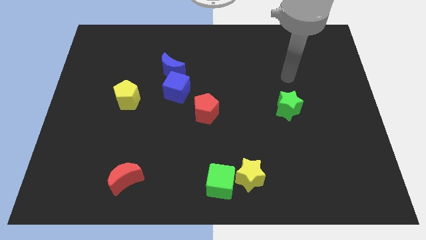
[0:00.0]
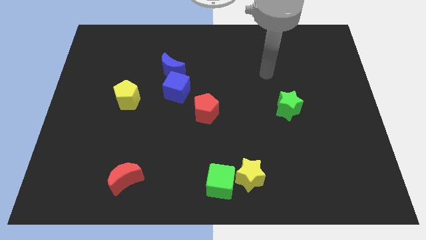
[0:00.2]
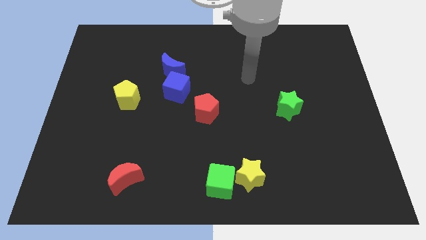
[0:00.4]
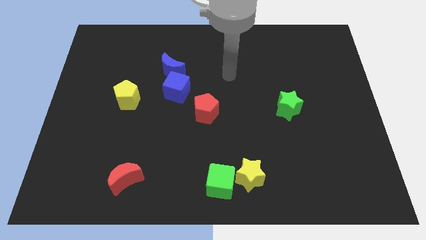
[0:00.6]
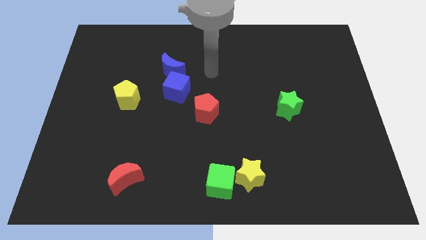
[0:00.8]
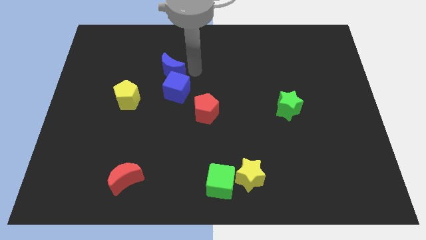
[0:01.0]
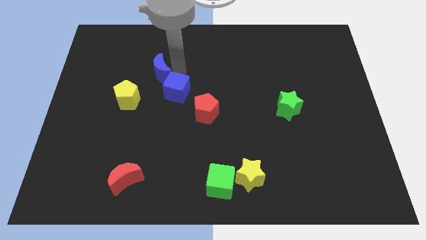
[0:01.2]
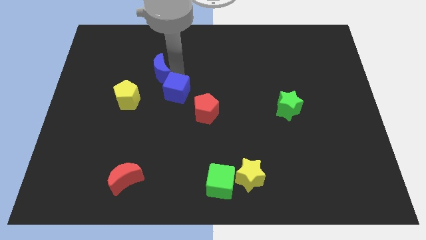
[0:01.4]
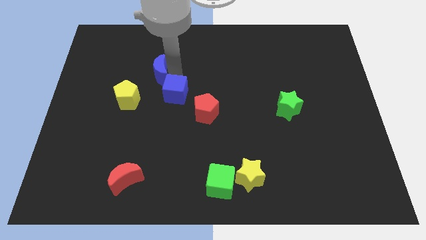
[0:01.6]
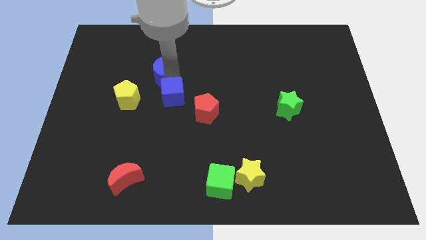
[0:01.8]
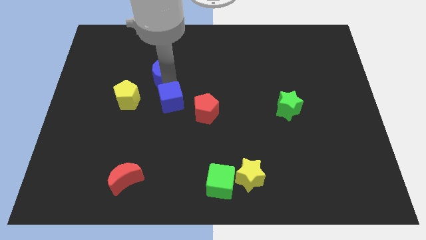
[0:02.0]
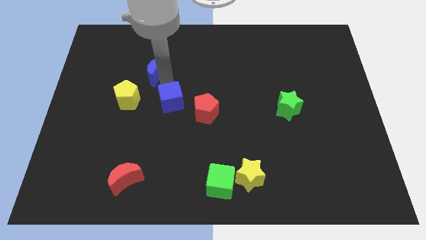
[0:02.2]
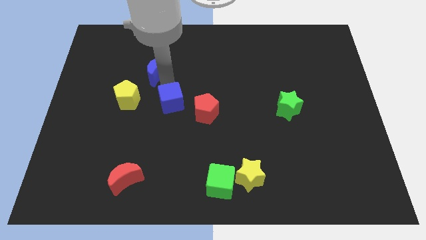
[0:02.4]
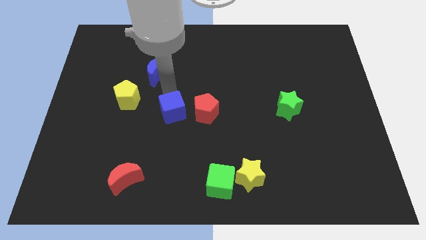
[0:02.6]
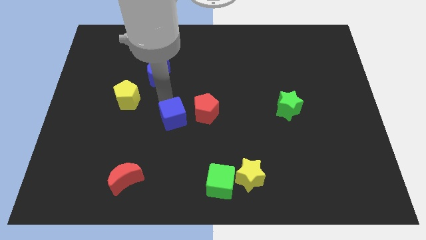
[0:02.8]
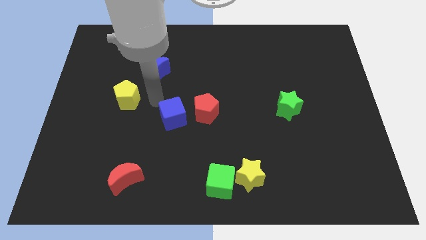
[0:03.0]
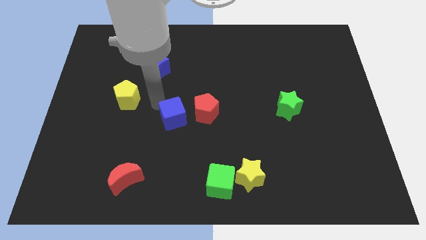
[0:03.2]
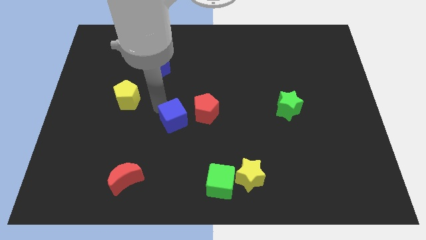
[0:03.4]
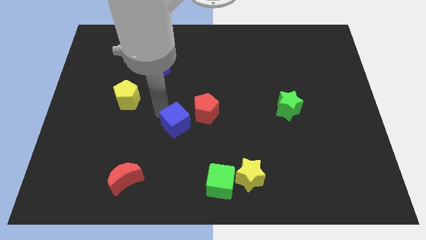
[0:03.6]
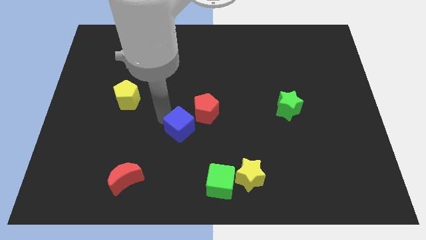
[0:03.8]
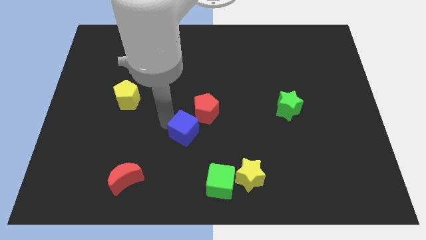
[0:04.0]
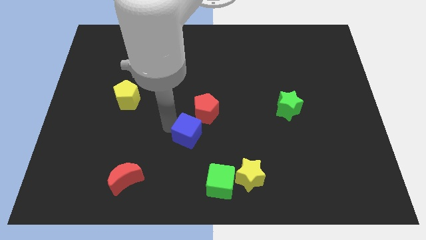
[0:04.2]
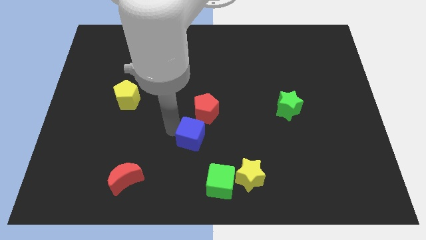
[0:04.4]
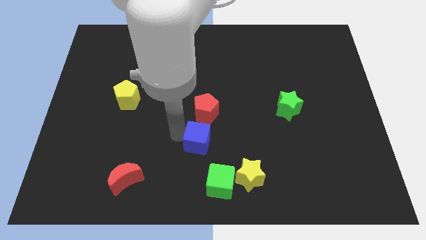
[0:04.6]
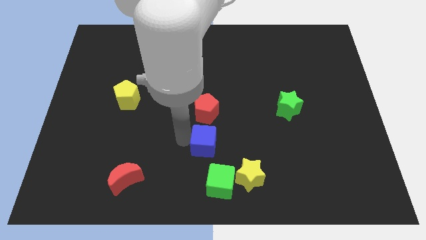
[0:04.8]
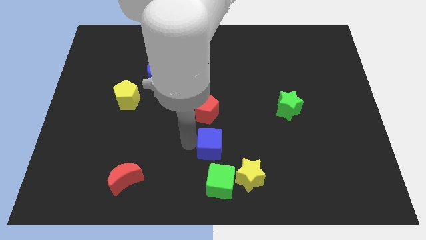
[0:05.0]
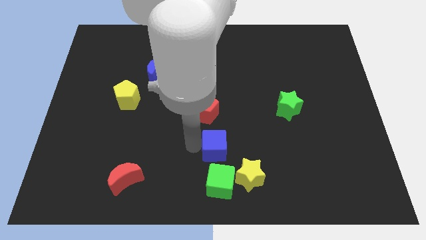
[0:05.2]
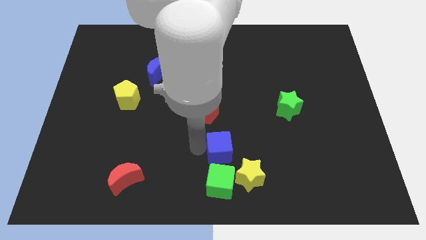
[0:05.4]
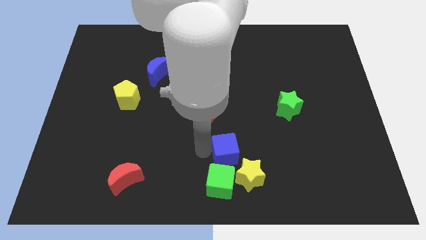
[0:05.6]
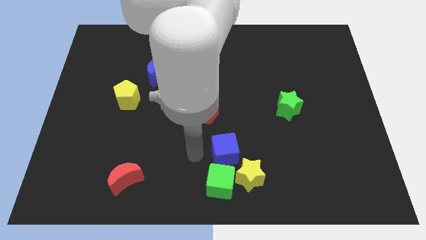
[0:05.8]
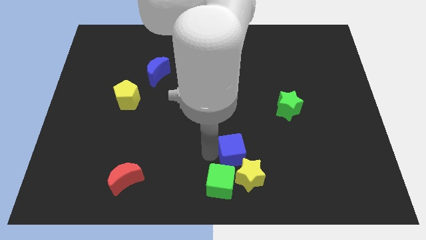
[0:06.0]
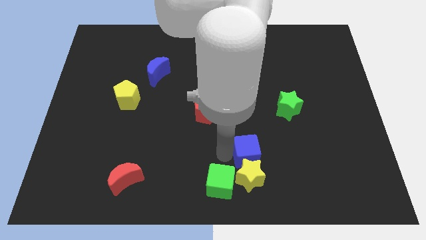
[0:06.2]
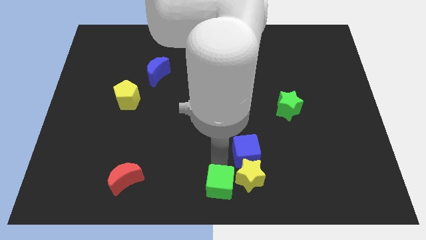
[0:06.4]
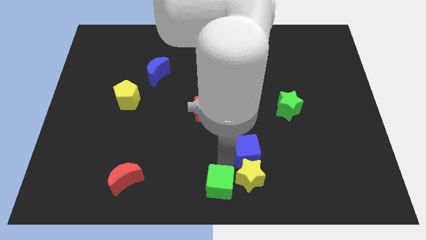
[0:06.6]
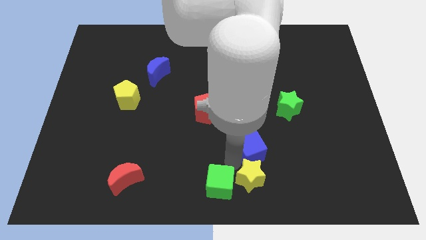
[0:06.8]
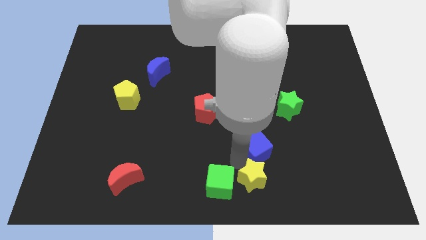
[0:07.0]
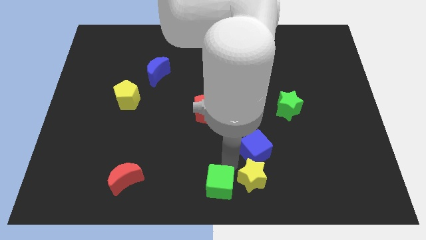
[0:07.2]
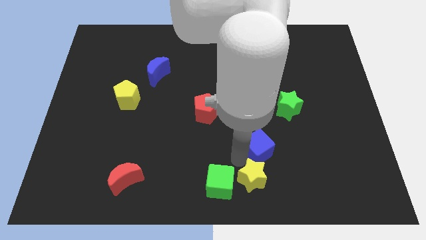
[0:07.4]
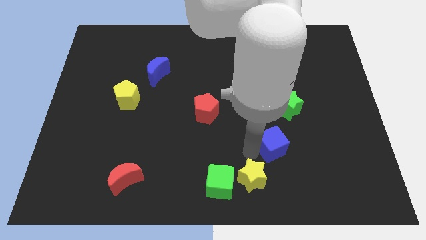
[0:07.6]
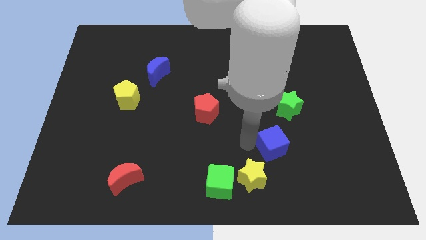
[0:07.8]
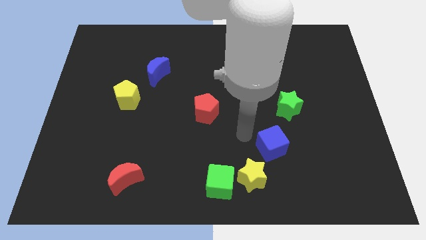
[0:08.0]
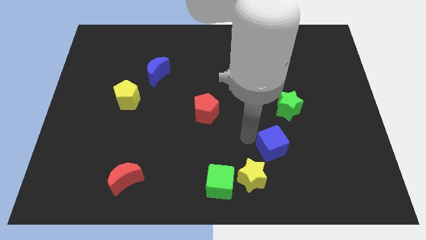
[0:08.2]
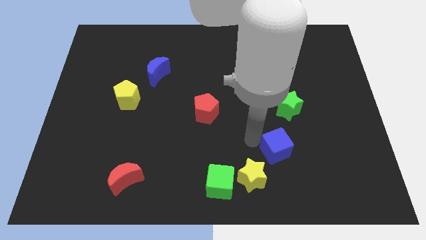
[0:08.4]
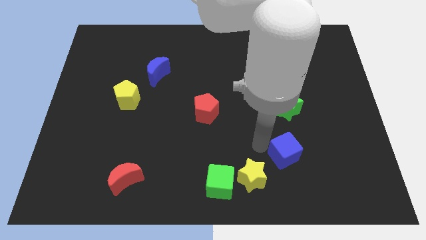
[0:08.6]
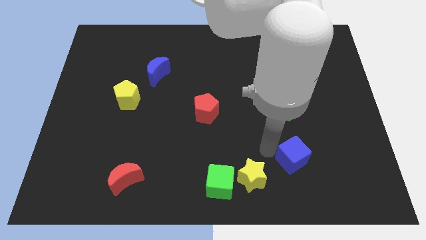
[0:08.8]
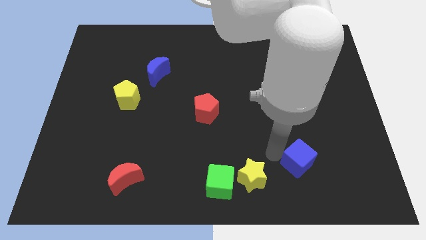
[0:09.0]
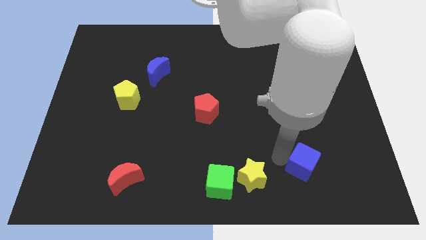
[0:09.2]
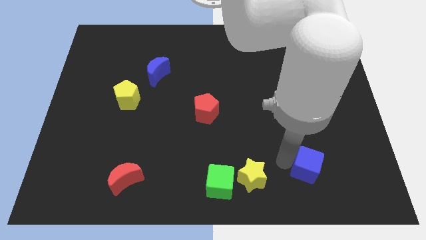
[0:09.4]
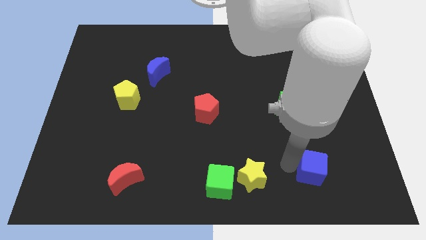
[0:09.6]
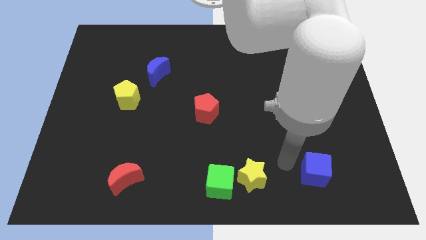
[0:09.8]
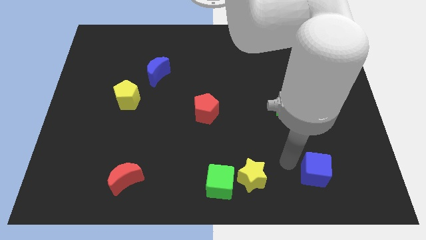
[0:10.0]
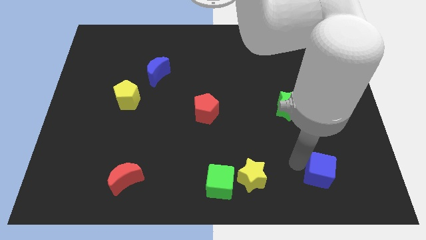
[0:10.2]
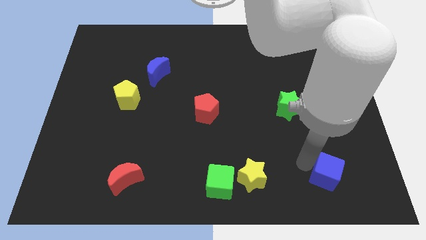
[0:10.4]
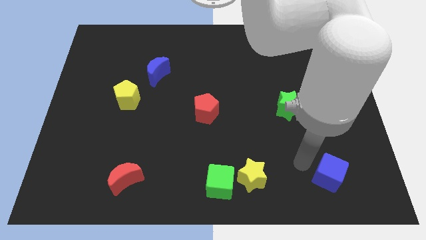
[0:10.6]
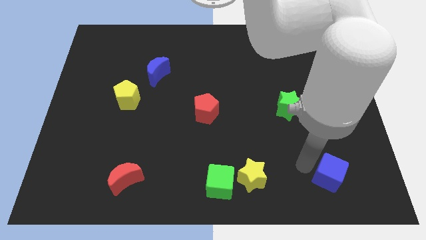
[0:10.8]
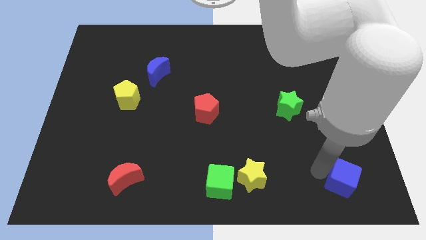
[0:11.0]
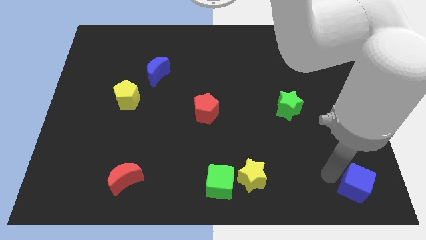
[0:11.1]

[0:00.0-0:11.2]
slide the blue cube to the bottom right of the board
